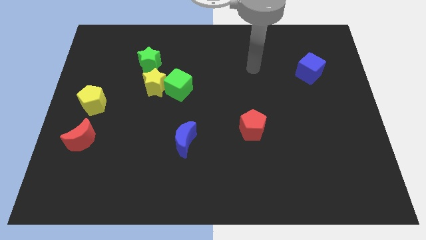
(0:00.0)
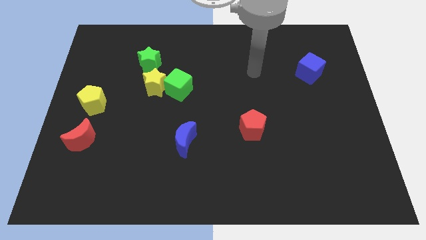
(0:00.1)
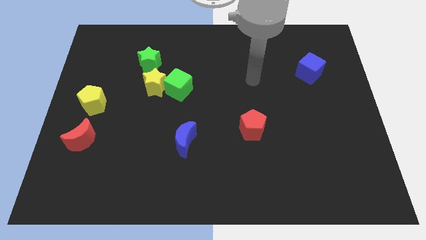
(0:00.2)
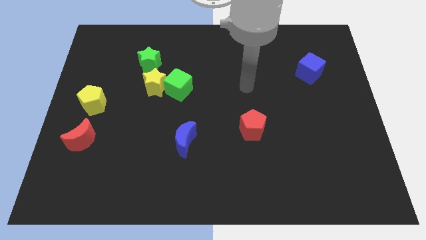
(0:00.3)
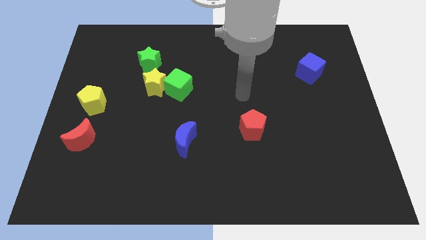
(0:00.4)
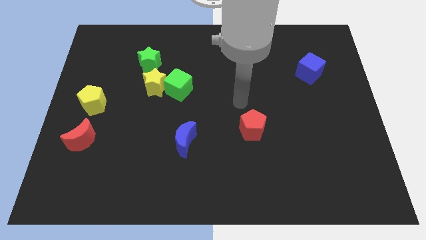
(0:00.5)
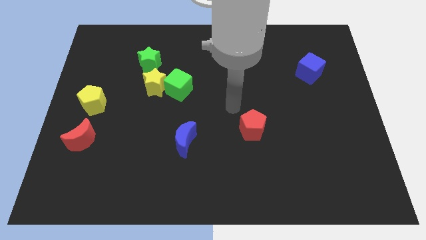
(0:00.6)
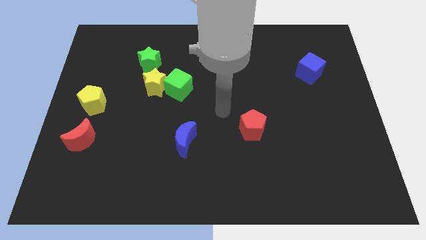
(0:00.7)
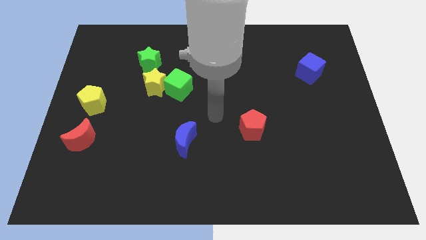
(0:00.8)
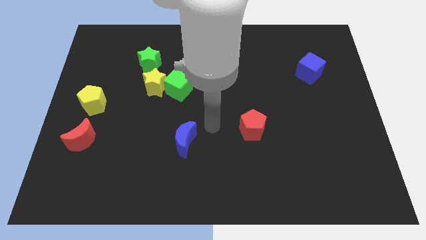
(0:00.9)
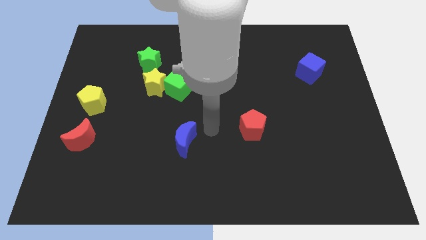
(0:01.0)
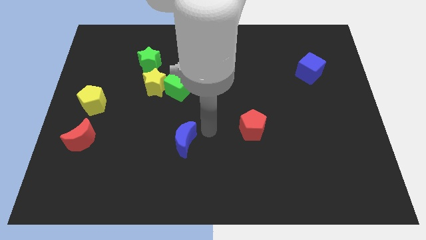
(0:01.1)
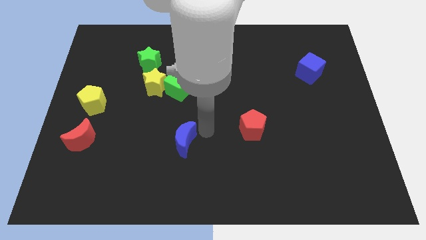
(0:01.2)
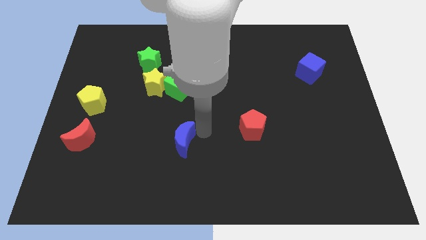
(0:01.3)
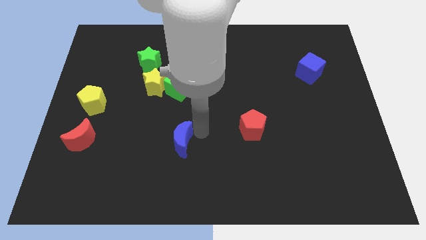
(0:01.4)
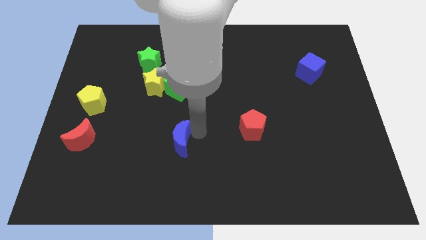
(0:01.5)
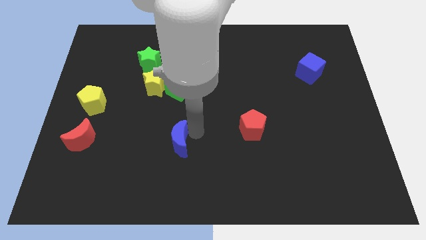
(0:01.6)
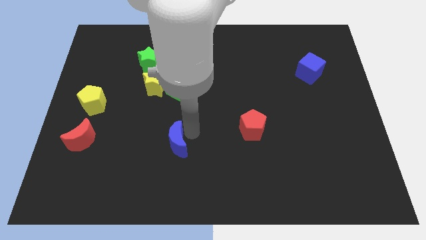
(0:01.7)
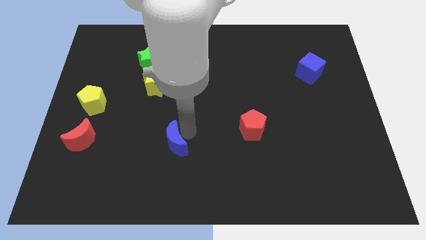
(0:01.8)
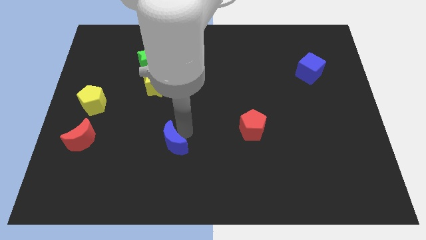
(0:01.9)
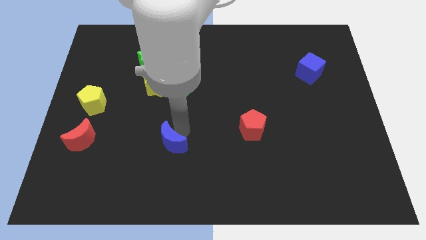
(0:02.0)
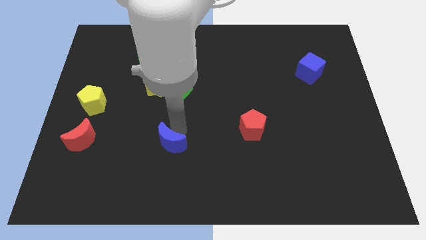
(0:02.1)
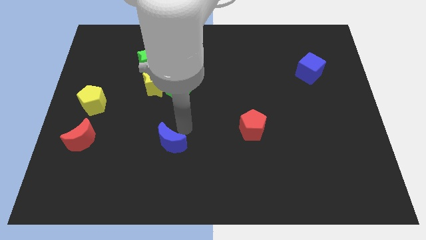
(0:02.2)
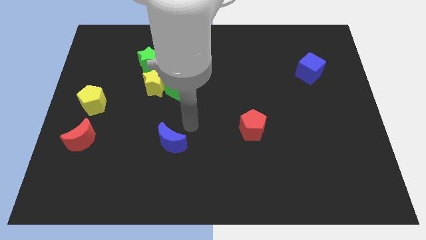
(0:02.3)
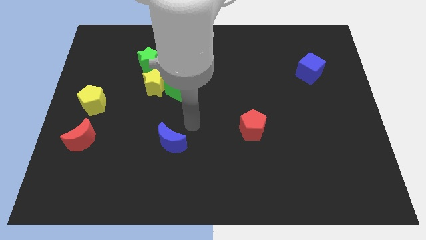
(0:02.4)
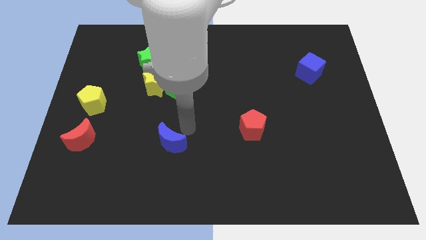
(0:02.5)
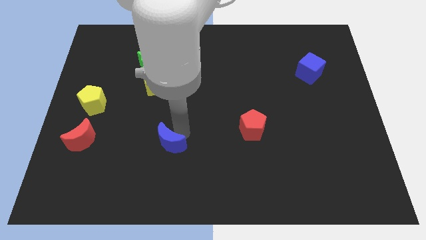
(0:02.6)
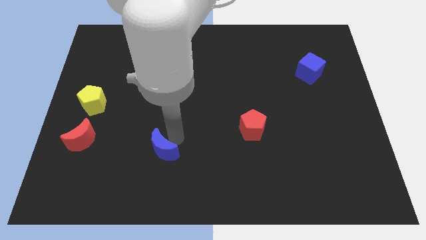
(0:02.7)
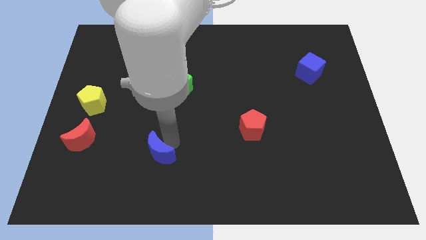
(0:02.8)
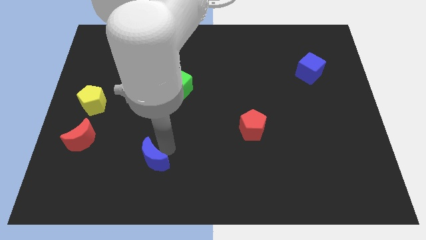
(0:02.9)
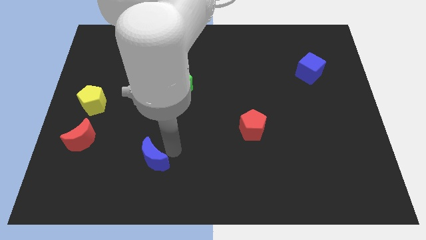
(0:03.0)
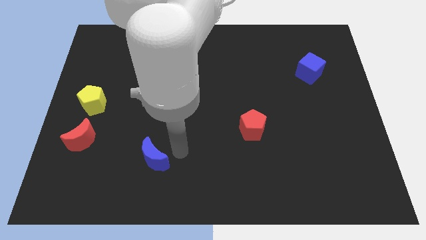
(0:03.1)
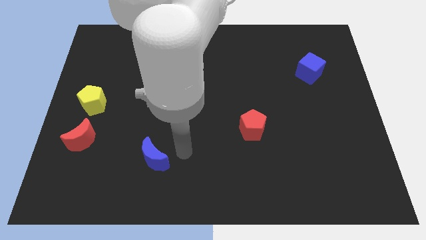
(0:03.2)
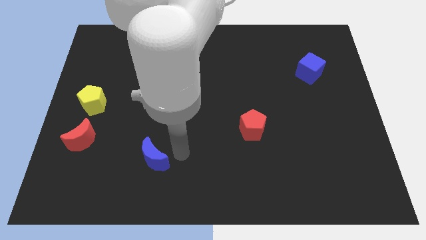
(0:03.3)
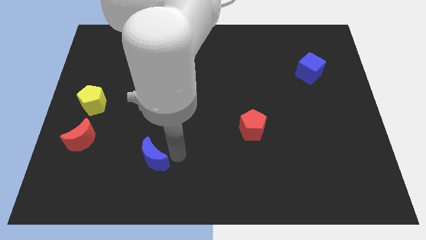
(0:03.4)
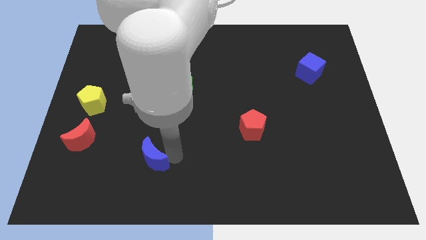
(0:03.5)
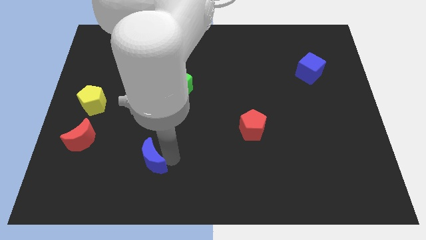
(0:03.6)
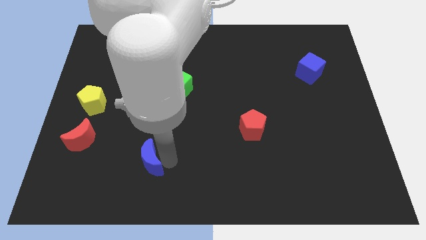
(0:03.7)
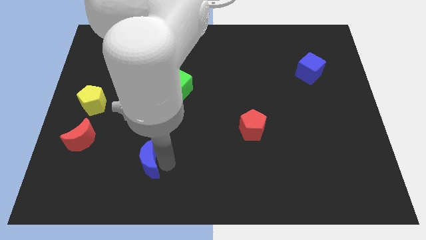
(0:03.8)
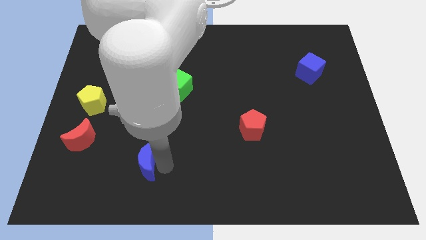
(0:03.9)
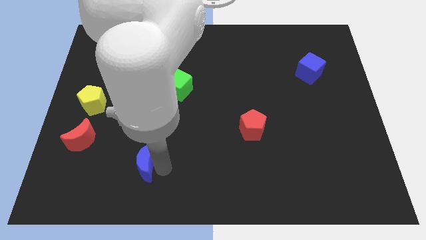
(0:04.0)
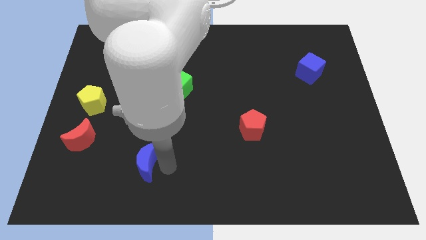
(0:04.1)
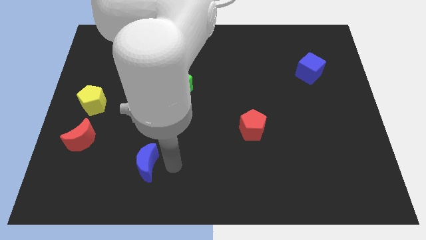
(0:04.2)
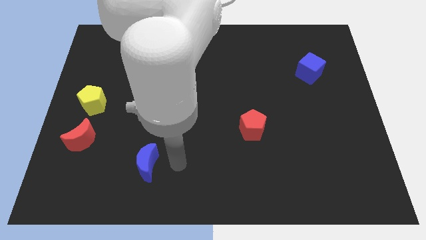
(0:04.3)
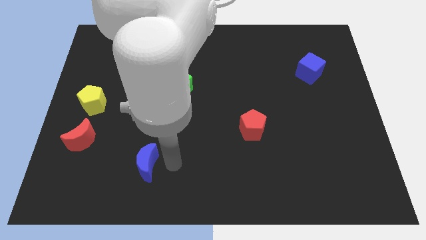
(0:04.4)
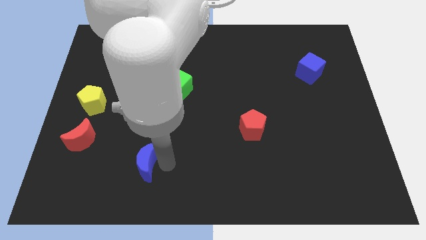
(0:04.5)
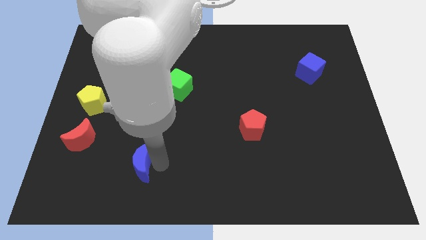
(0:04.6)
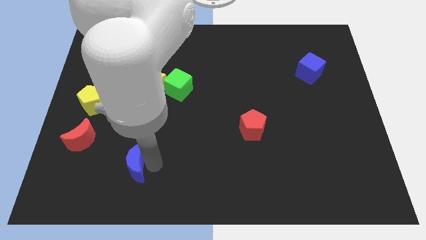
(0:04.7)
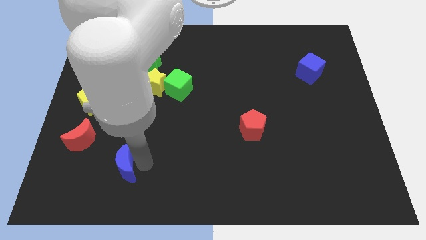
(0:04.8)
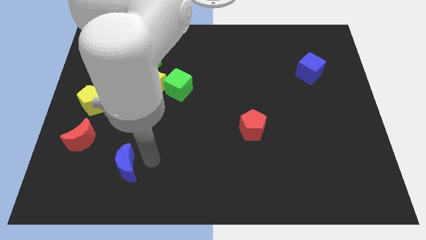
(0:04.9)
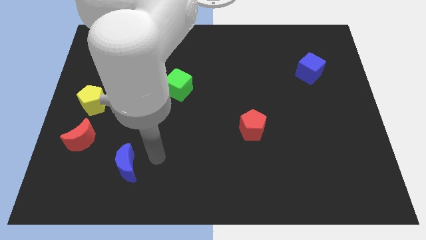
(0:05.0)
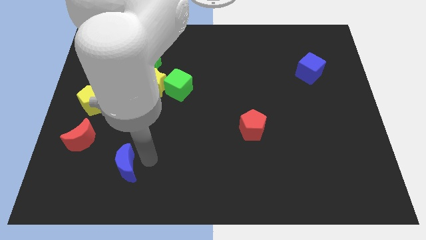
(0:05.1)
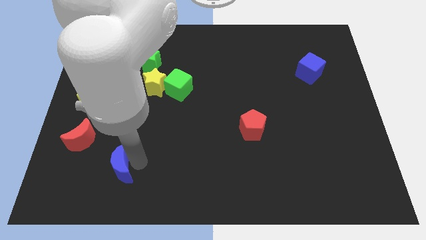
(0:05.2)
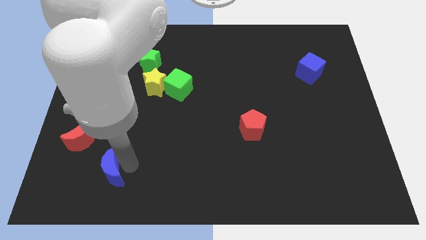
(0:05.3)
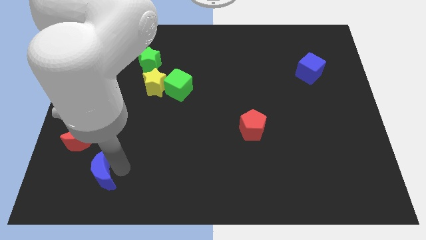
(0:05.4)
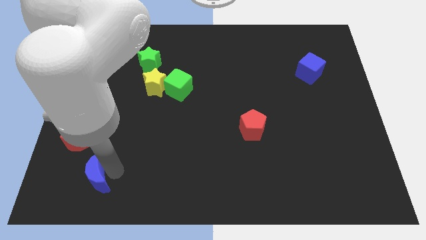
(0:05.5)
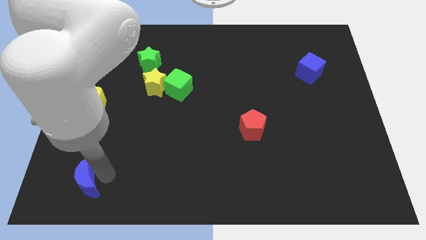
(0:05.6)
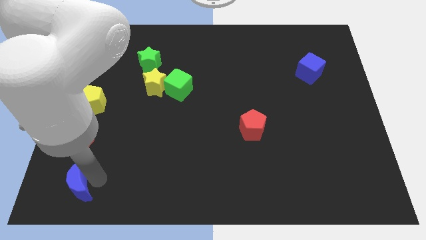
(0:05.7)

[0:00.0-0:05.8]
put the blue moon to the lower left corner
